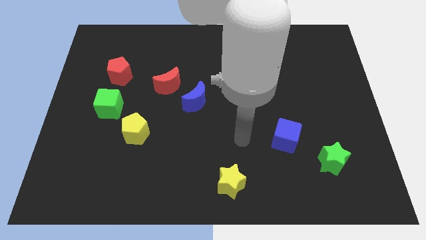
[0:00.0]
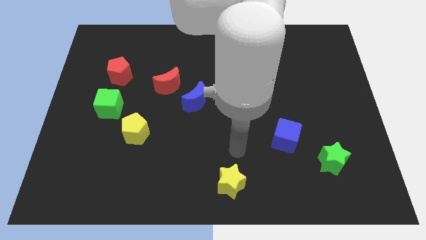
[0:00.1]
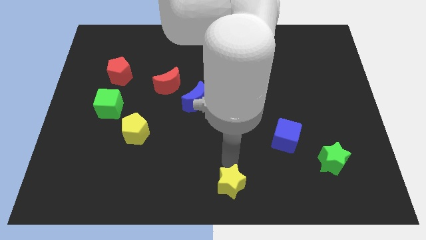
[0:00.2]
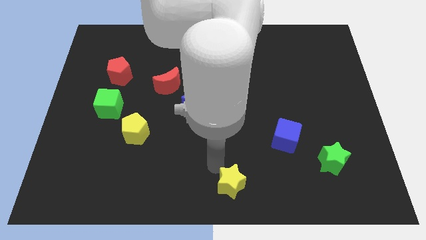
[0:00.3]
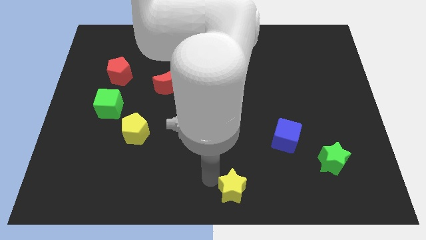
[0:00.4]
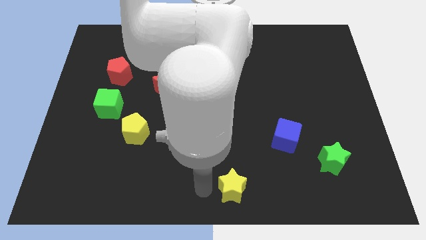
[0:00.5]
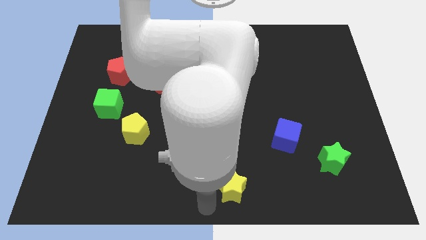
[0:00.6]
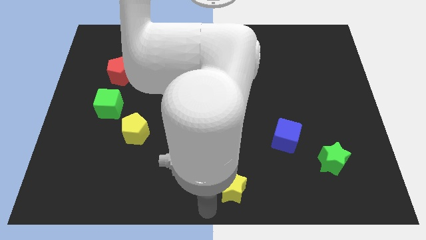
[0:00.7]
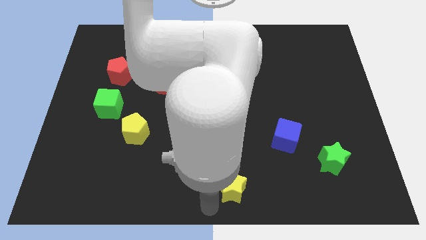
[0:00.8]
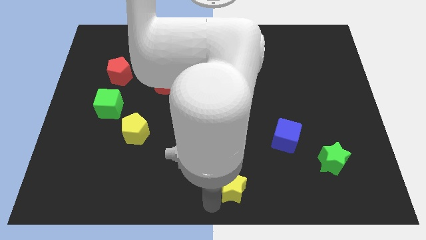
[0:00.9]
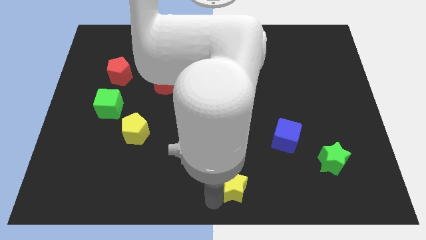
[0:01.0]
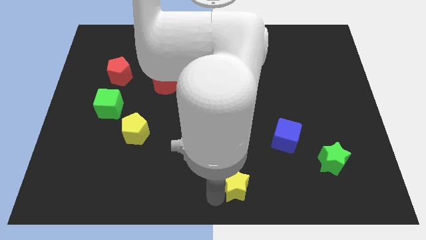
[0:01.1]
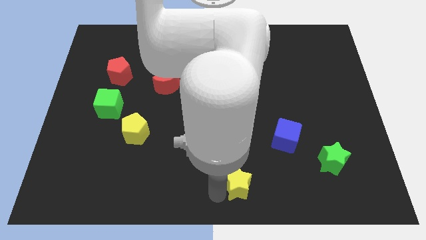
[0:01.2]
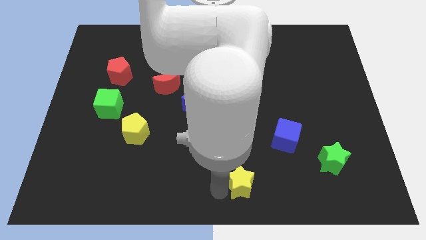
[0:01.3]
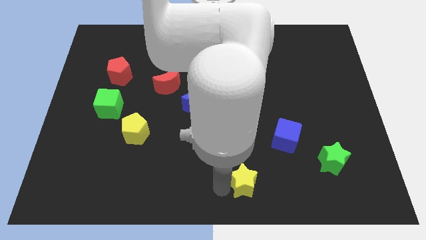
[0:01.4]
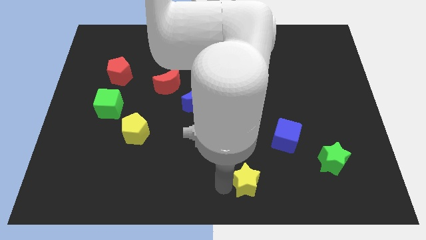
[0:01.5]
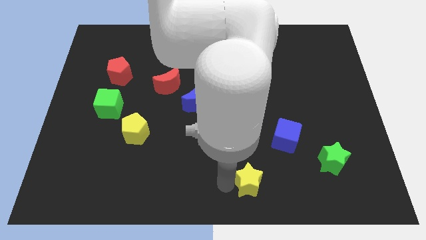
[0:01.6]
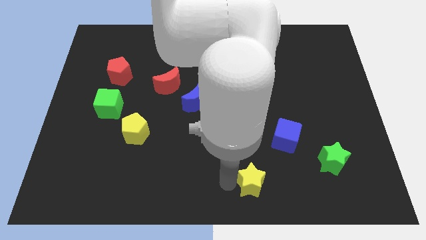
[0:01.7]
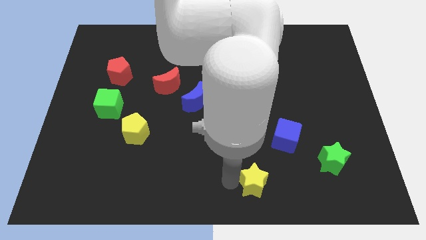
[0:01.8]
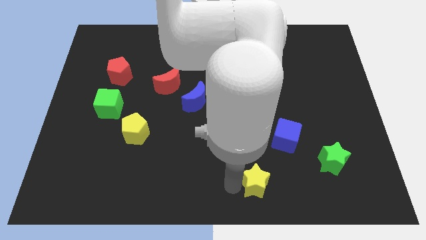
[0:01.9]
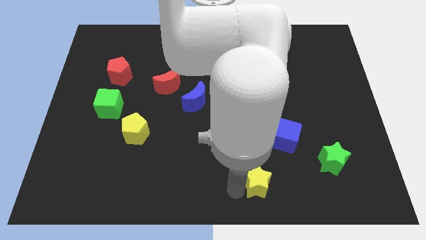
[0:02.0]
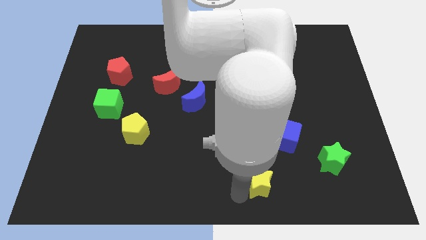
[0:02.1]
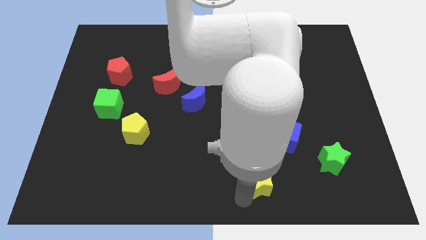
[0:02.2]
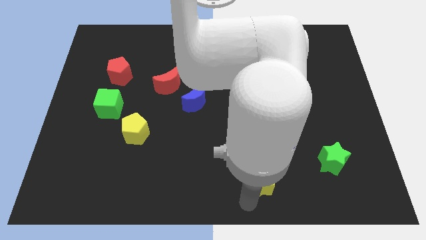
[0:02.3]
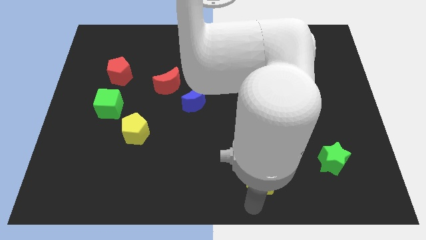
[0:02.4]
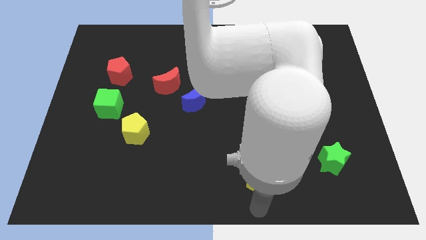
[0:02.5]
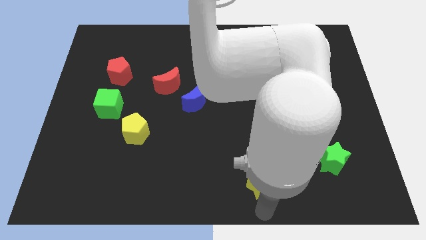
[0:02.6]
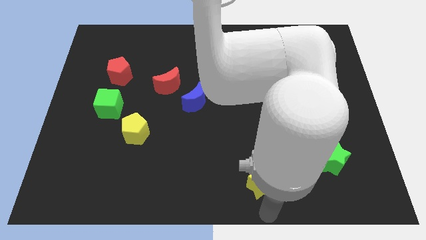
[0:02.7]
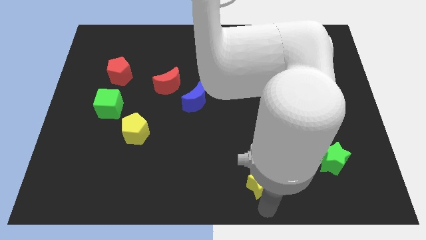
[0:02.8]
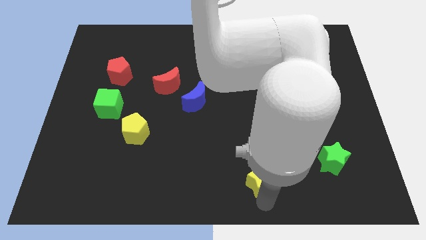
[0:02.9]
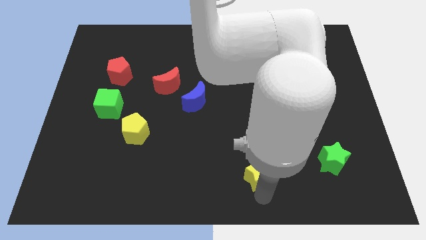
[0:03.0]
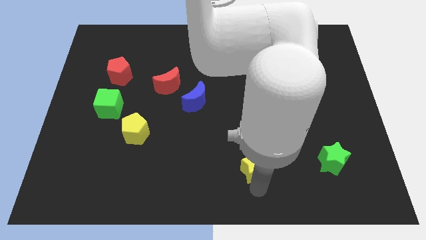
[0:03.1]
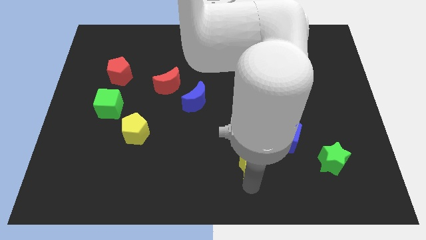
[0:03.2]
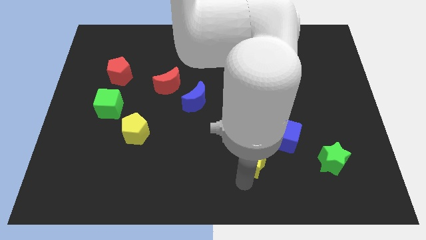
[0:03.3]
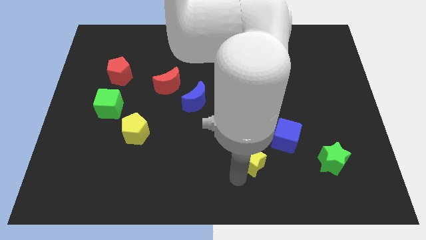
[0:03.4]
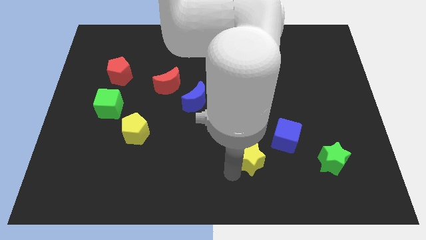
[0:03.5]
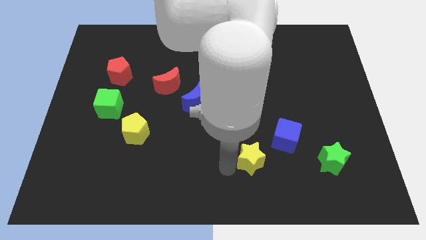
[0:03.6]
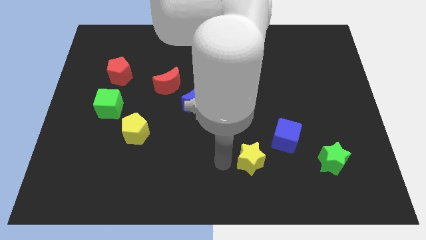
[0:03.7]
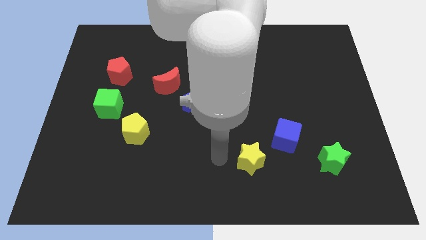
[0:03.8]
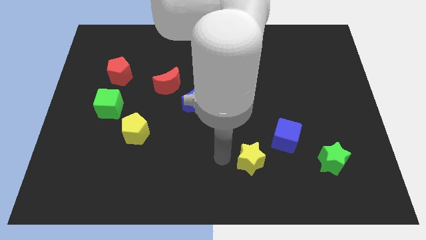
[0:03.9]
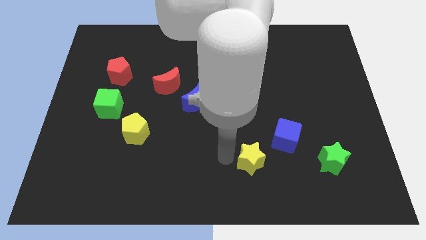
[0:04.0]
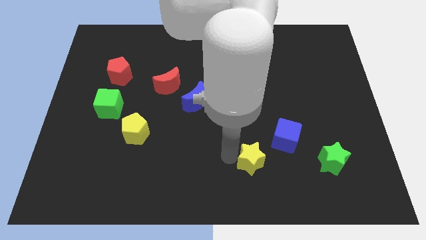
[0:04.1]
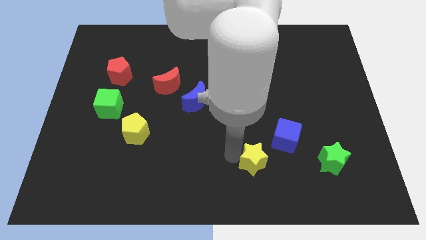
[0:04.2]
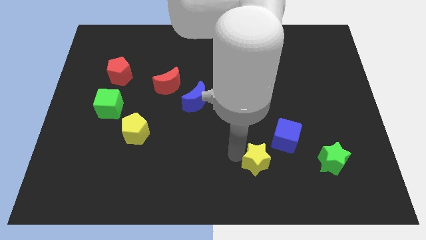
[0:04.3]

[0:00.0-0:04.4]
put the yellow star to the left side of the green star

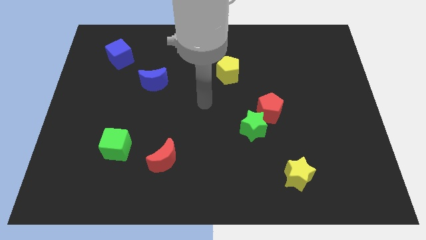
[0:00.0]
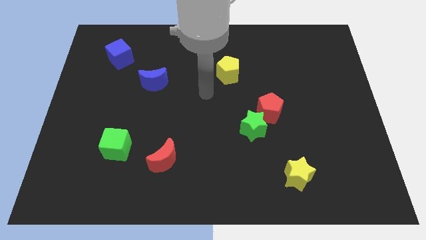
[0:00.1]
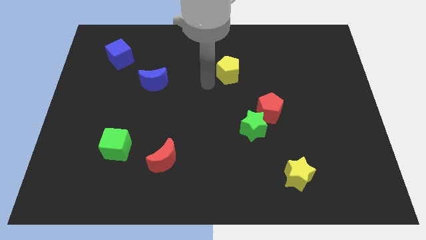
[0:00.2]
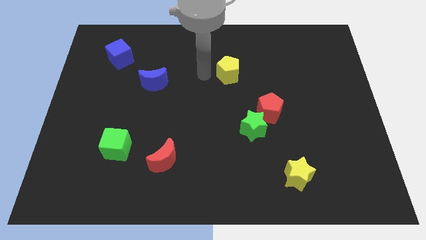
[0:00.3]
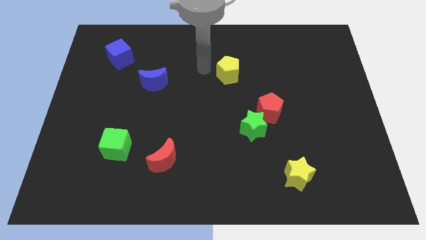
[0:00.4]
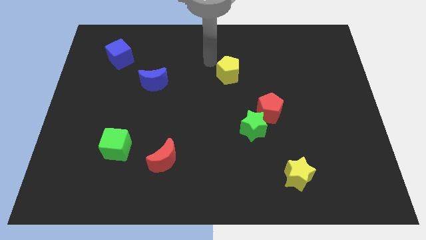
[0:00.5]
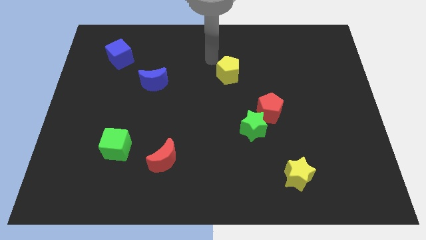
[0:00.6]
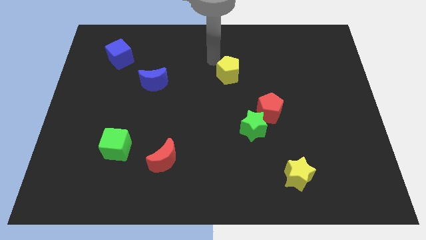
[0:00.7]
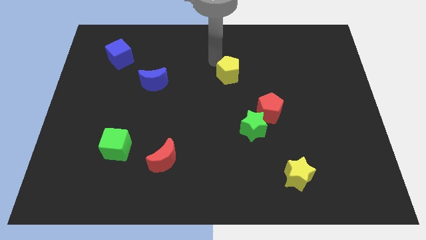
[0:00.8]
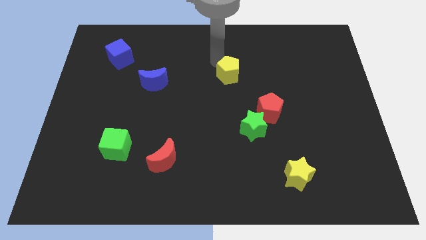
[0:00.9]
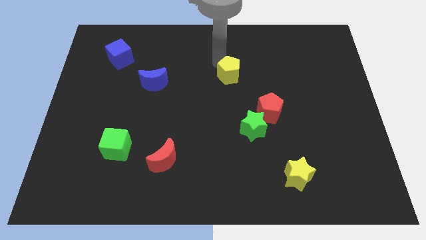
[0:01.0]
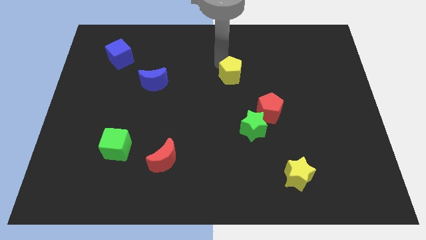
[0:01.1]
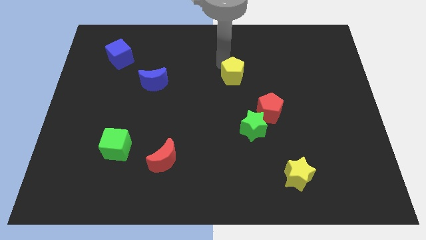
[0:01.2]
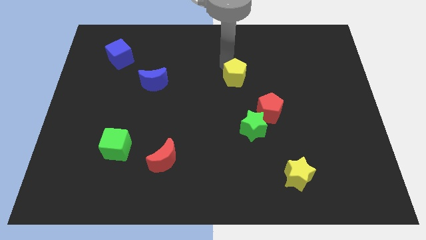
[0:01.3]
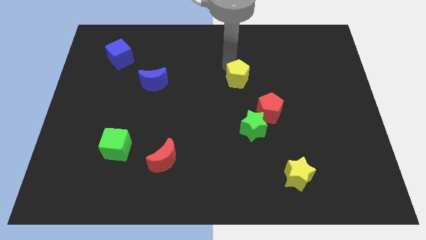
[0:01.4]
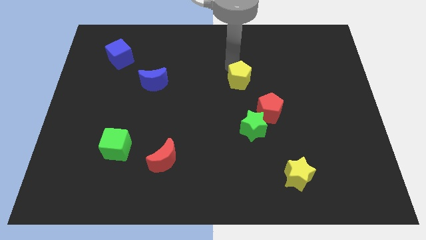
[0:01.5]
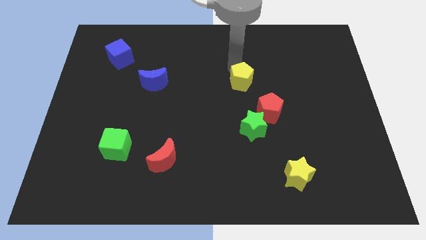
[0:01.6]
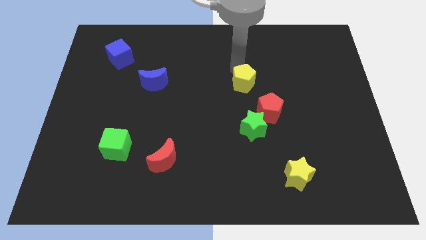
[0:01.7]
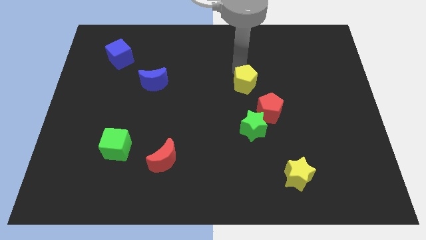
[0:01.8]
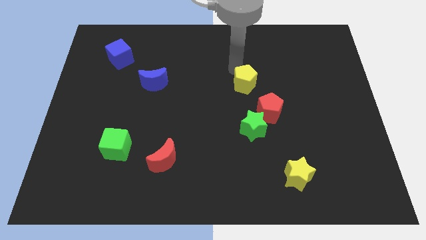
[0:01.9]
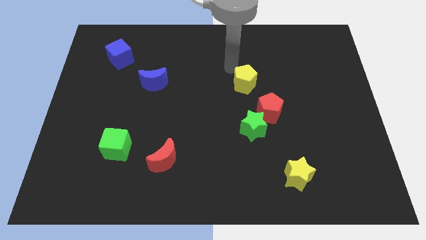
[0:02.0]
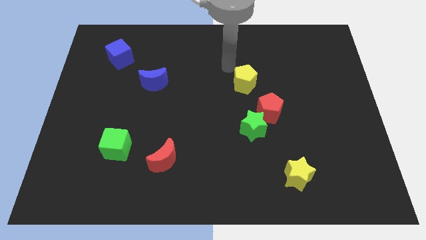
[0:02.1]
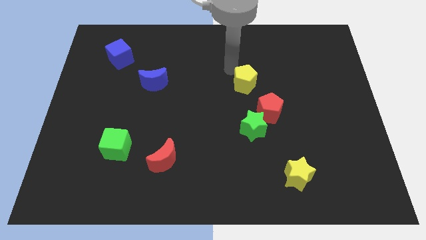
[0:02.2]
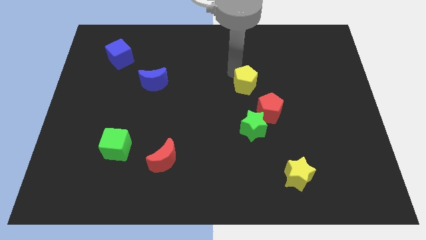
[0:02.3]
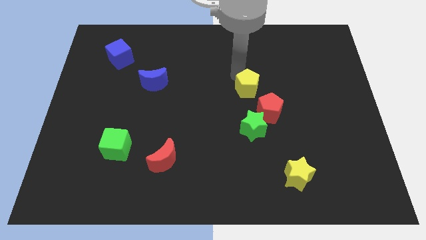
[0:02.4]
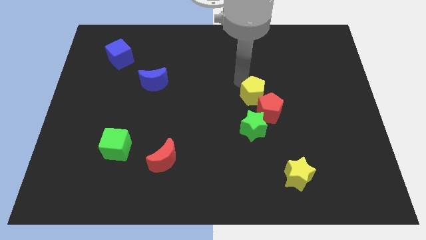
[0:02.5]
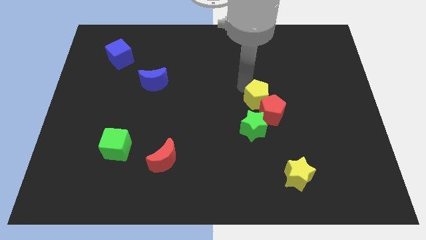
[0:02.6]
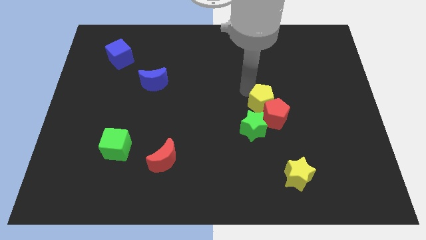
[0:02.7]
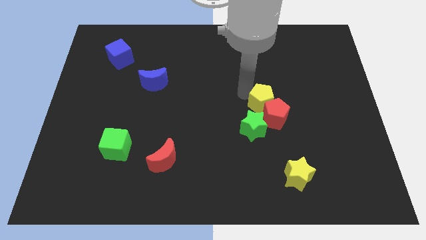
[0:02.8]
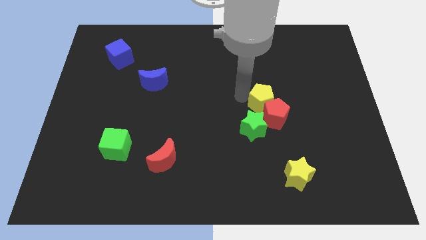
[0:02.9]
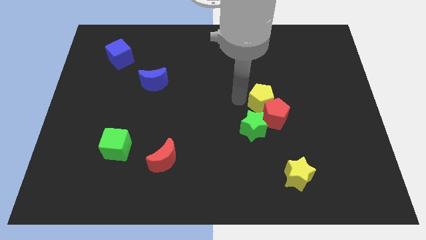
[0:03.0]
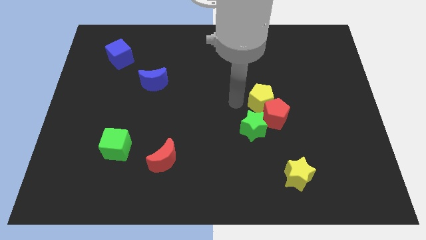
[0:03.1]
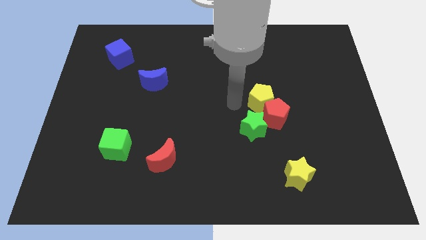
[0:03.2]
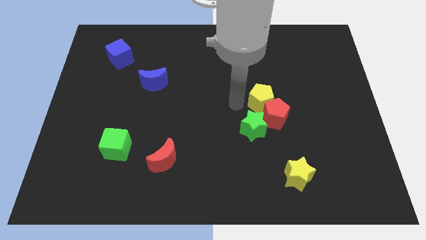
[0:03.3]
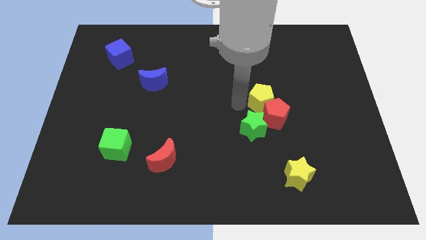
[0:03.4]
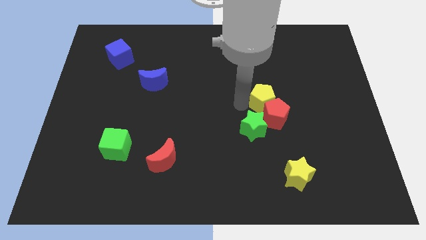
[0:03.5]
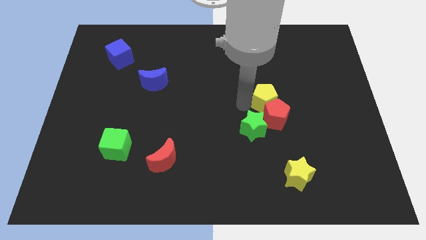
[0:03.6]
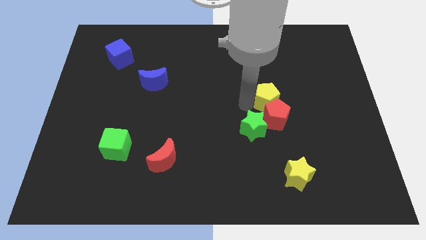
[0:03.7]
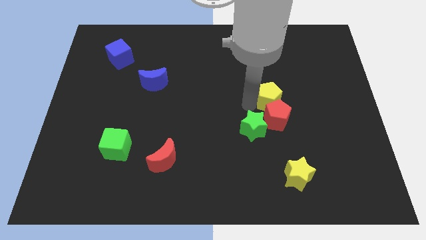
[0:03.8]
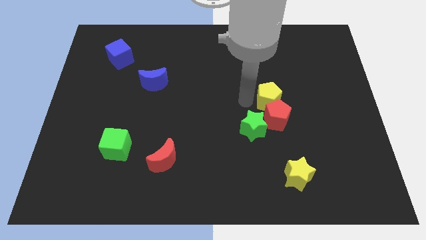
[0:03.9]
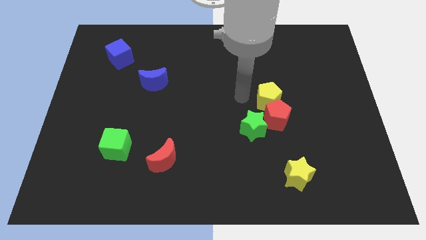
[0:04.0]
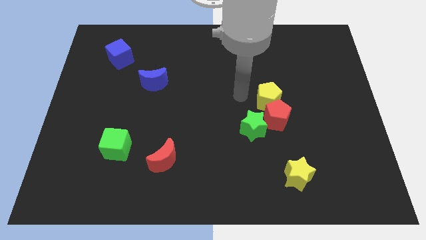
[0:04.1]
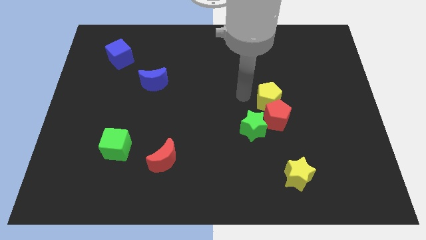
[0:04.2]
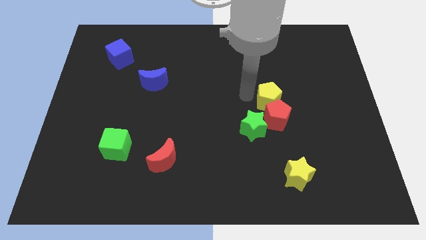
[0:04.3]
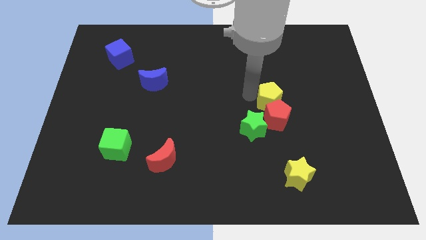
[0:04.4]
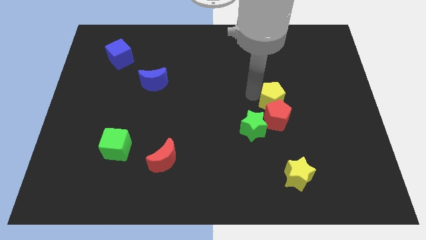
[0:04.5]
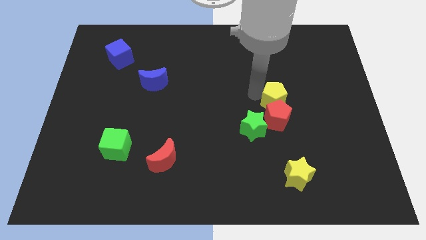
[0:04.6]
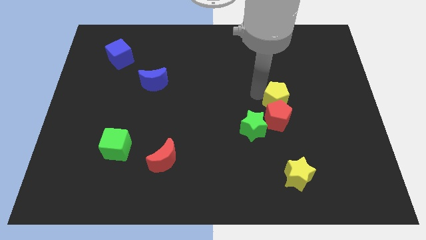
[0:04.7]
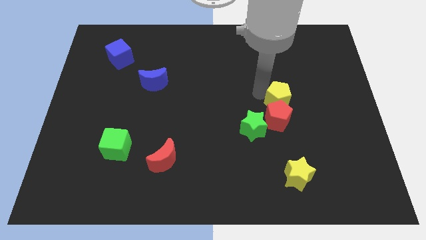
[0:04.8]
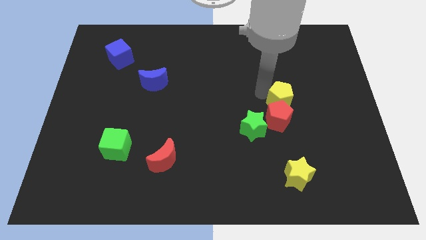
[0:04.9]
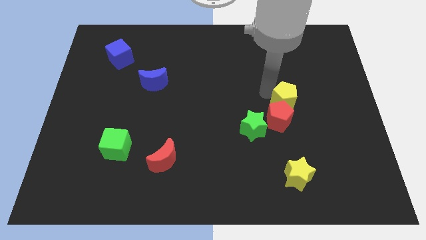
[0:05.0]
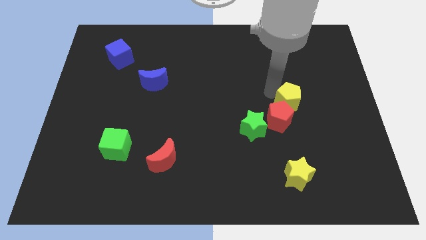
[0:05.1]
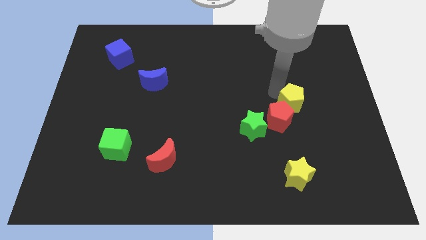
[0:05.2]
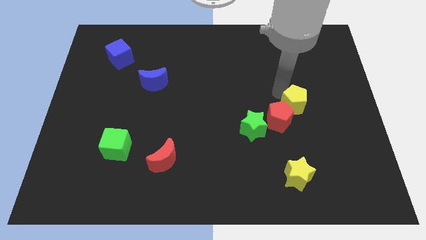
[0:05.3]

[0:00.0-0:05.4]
put the yellow pentagon right of the red pentagon
